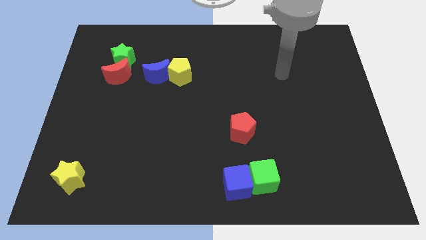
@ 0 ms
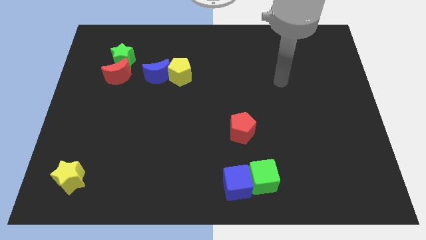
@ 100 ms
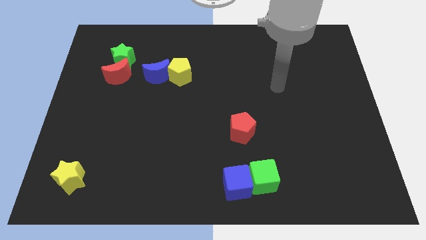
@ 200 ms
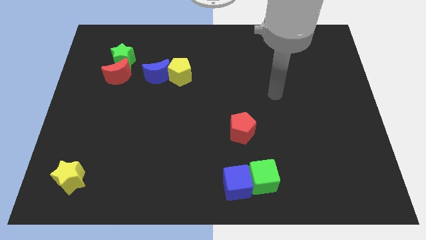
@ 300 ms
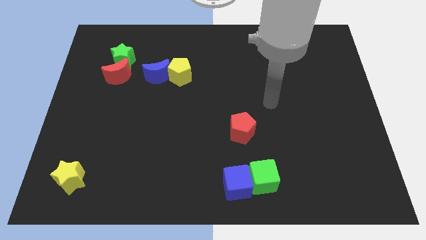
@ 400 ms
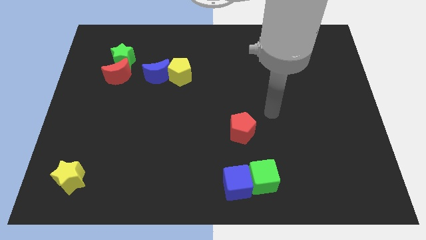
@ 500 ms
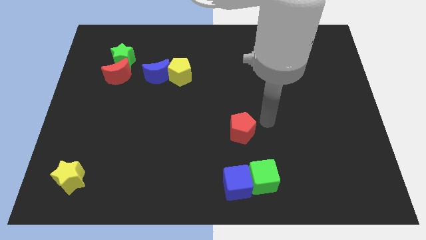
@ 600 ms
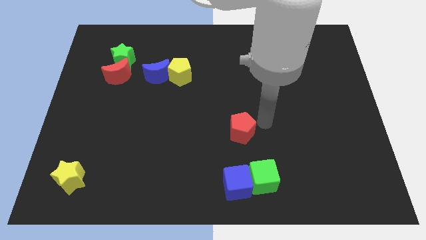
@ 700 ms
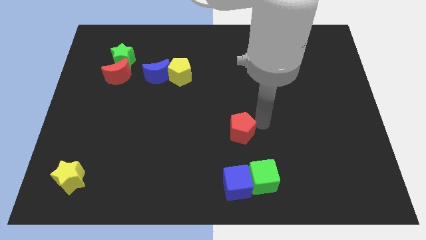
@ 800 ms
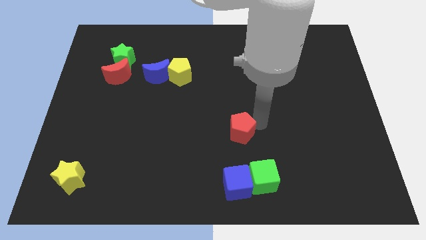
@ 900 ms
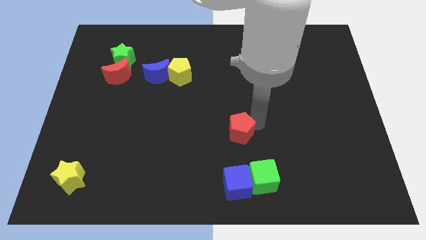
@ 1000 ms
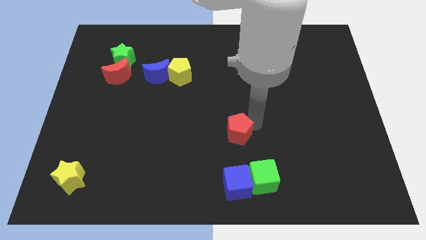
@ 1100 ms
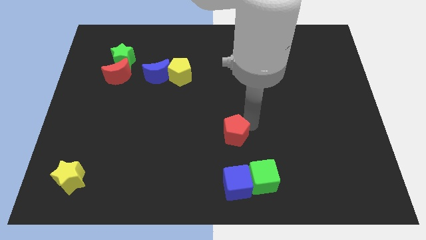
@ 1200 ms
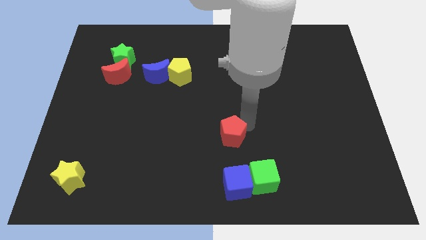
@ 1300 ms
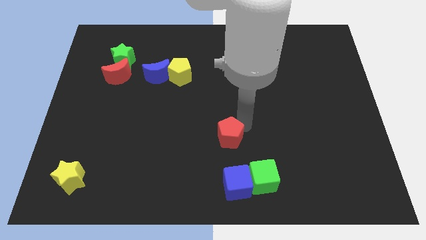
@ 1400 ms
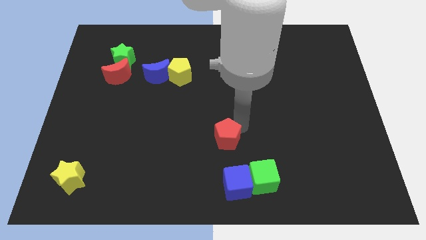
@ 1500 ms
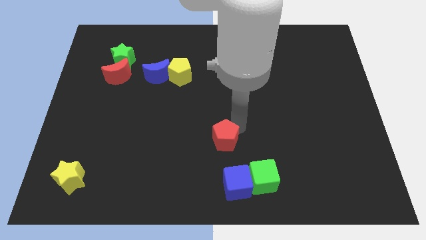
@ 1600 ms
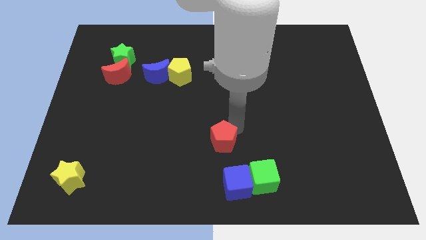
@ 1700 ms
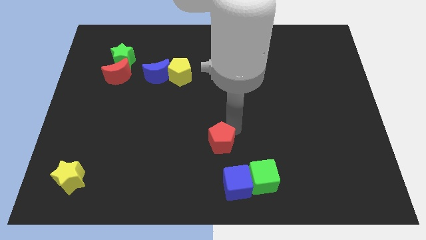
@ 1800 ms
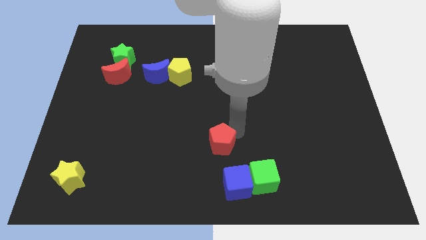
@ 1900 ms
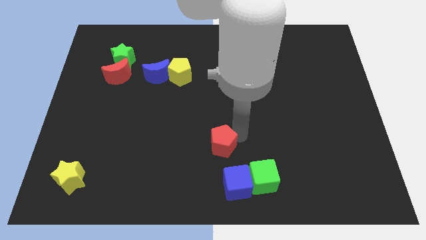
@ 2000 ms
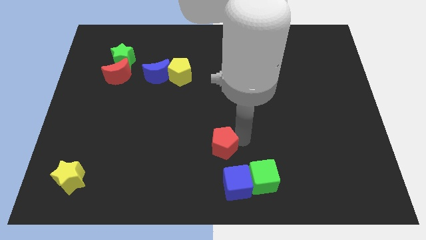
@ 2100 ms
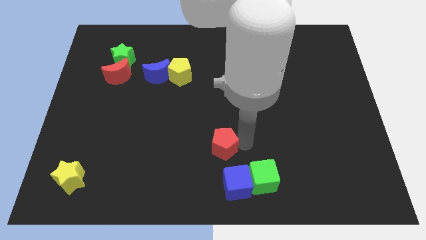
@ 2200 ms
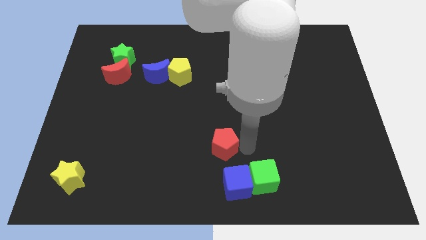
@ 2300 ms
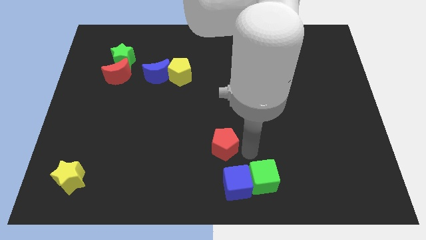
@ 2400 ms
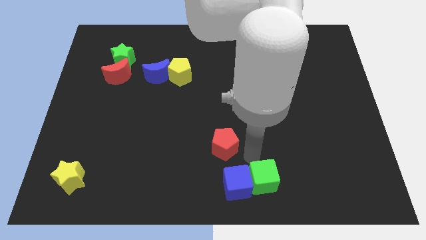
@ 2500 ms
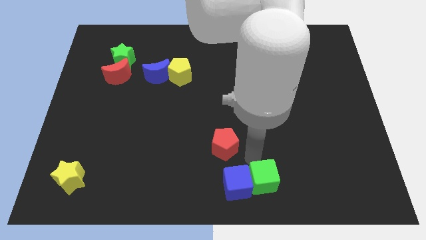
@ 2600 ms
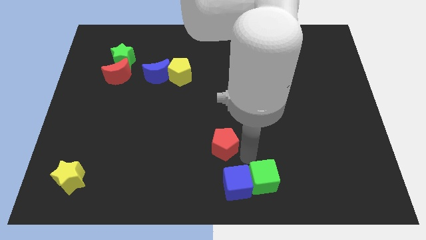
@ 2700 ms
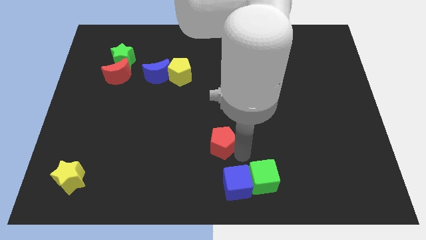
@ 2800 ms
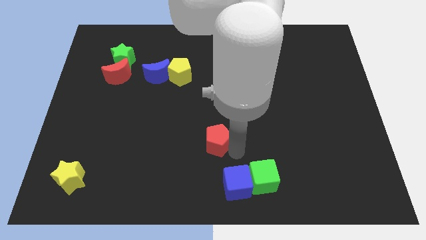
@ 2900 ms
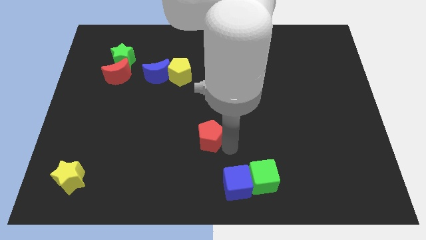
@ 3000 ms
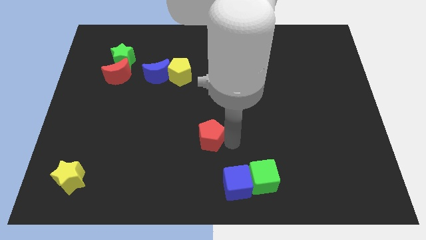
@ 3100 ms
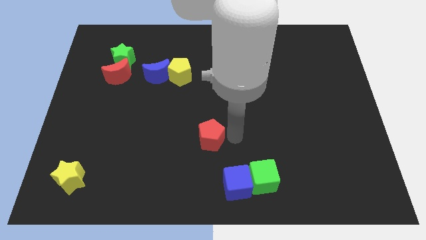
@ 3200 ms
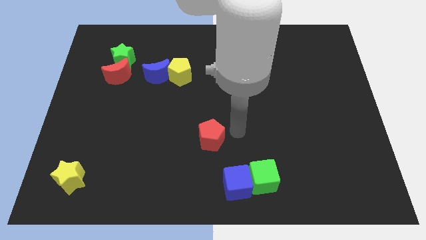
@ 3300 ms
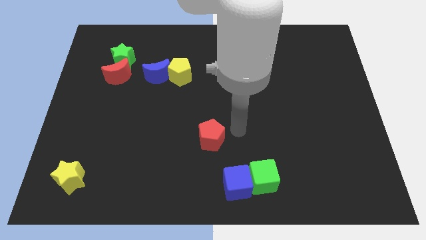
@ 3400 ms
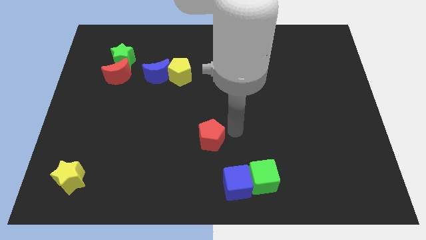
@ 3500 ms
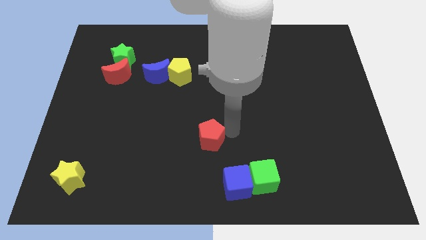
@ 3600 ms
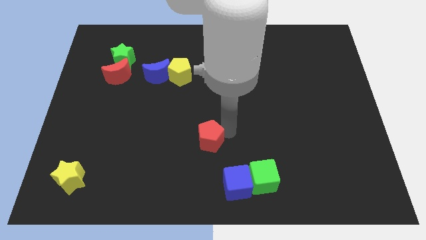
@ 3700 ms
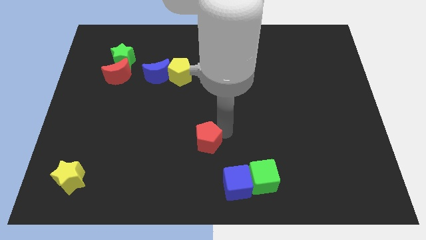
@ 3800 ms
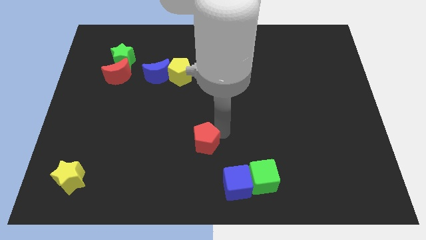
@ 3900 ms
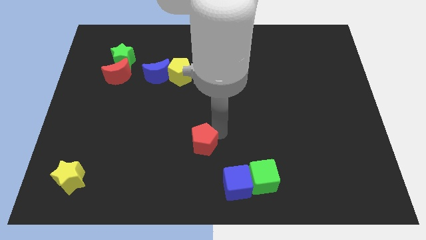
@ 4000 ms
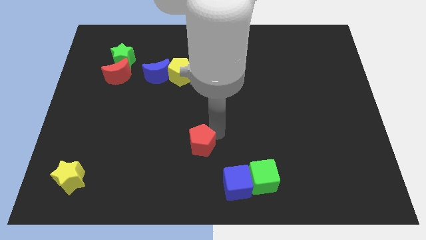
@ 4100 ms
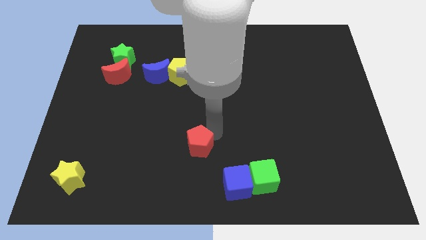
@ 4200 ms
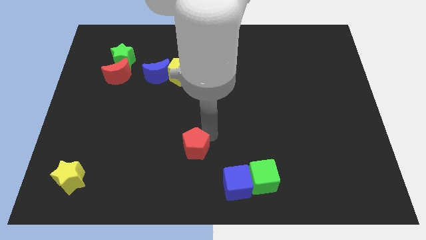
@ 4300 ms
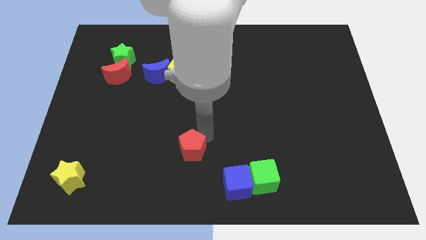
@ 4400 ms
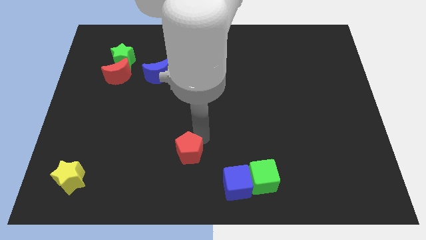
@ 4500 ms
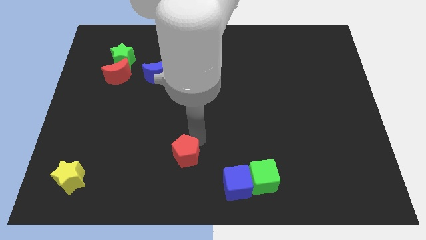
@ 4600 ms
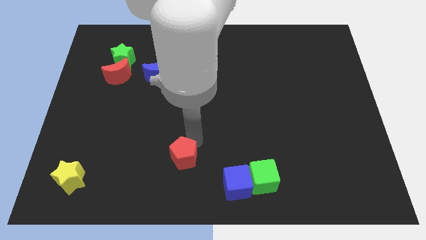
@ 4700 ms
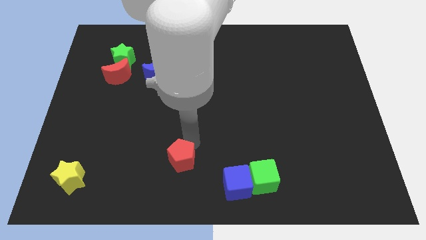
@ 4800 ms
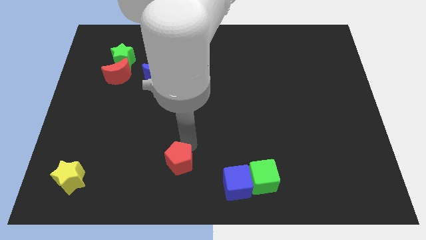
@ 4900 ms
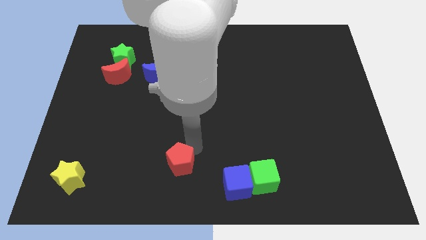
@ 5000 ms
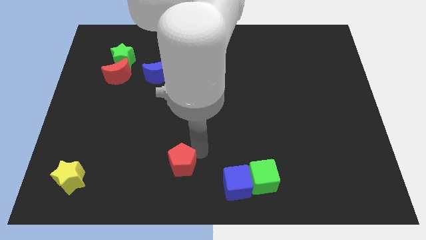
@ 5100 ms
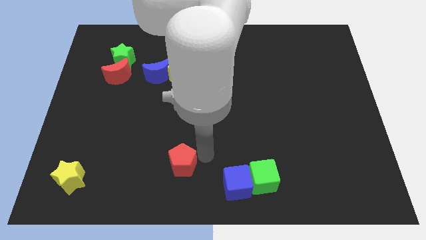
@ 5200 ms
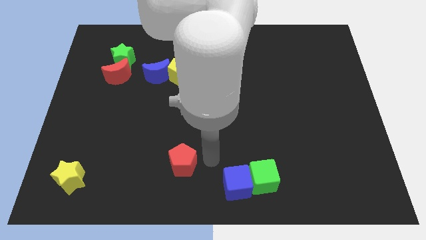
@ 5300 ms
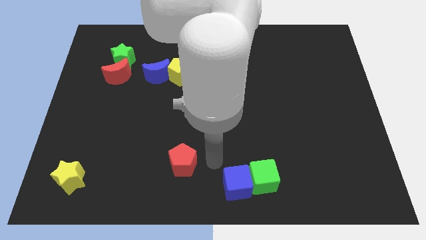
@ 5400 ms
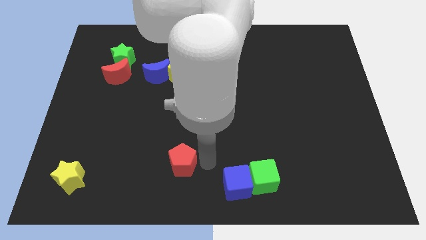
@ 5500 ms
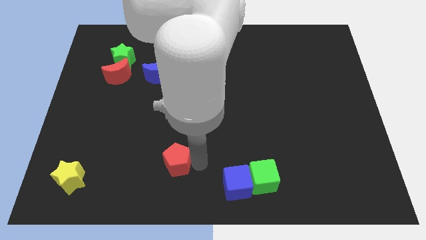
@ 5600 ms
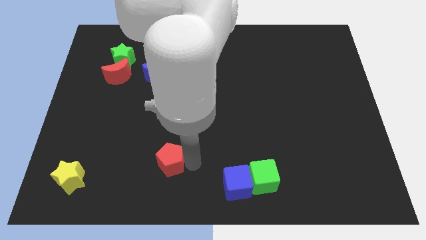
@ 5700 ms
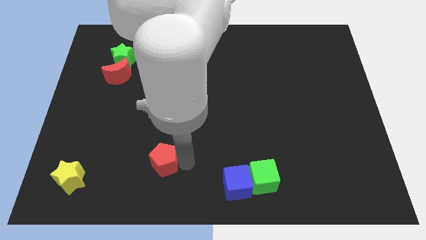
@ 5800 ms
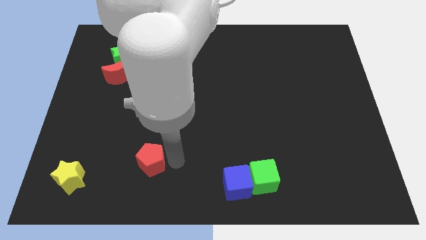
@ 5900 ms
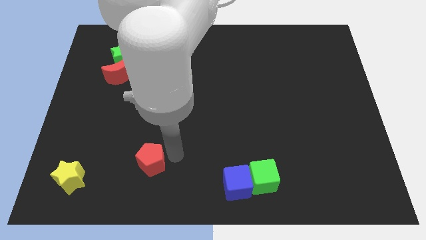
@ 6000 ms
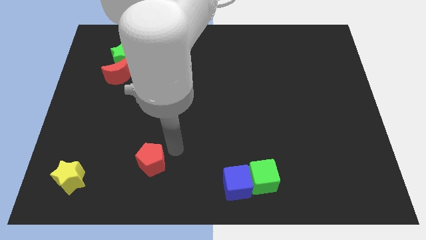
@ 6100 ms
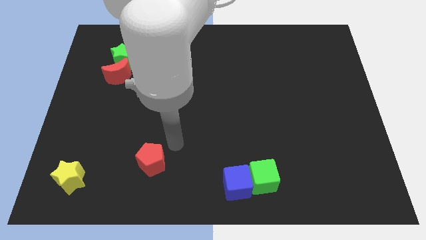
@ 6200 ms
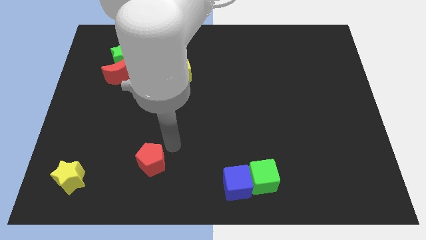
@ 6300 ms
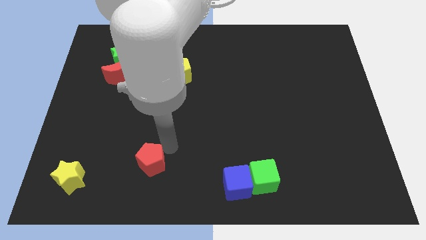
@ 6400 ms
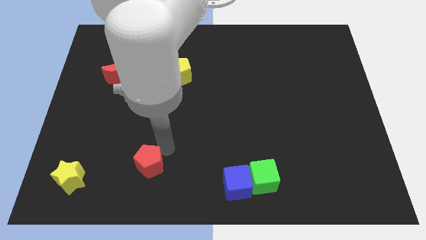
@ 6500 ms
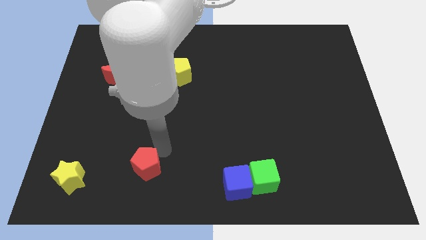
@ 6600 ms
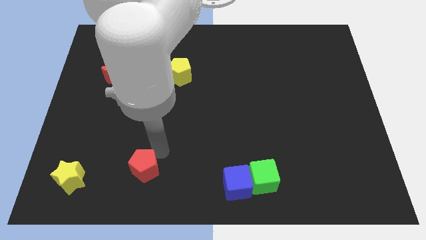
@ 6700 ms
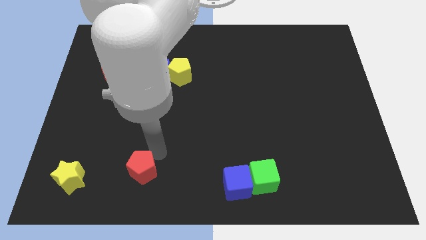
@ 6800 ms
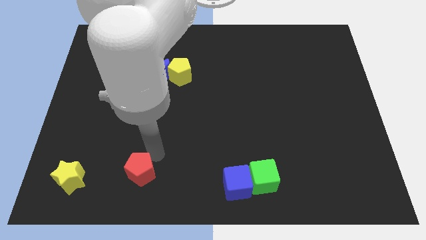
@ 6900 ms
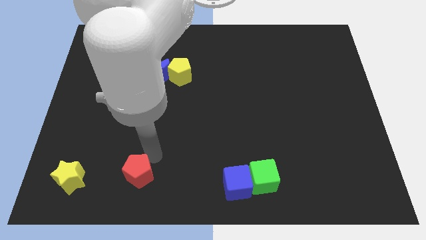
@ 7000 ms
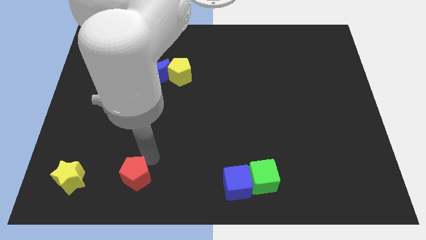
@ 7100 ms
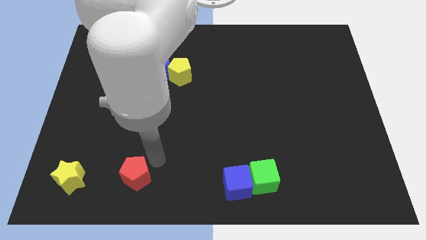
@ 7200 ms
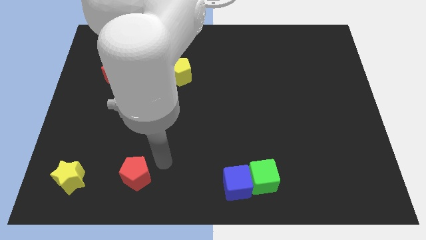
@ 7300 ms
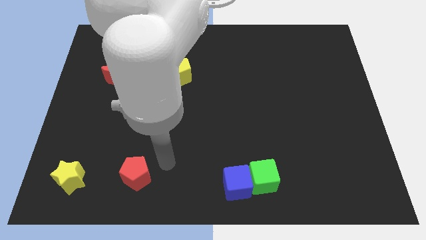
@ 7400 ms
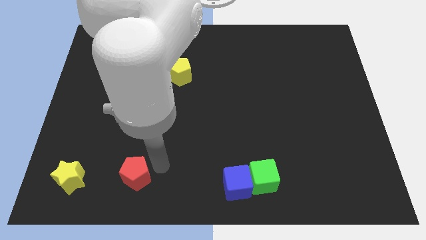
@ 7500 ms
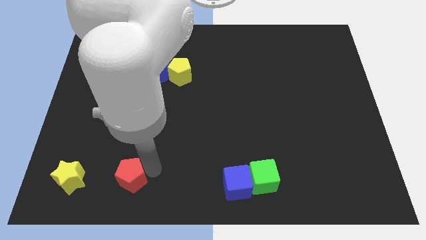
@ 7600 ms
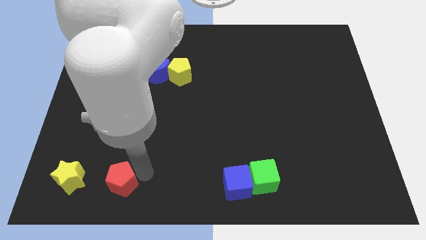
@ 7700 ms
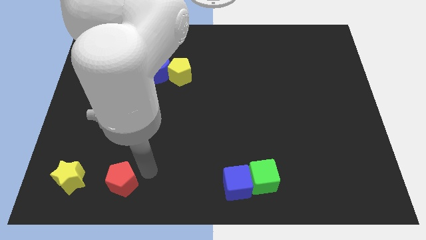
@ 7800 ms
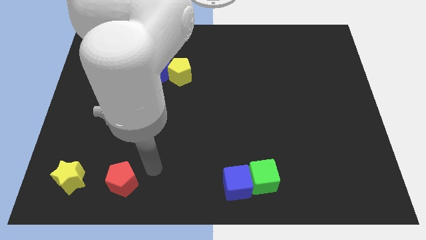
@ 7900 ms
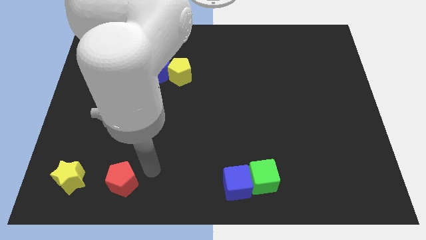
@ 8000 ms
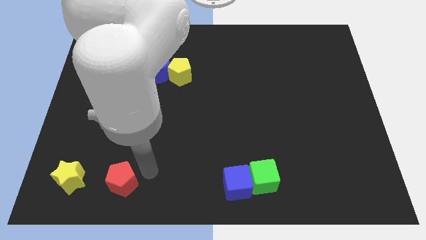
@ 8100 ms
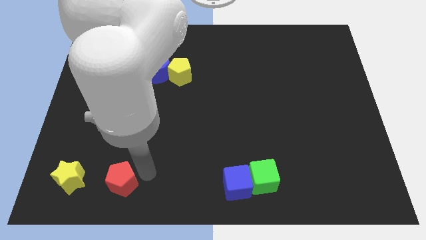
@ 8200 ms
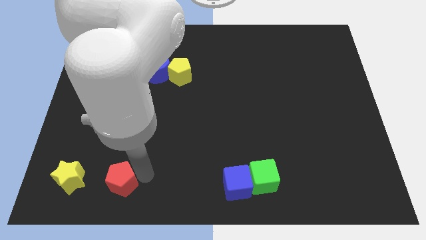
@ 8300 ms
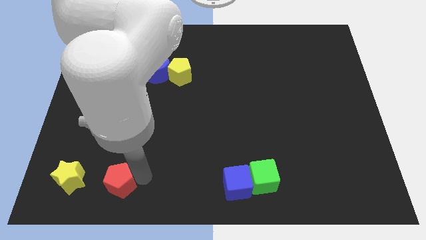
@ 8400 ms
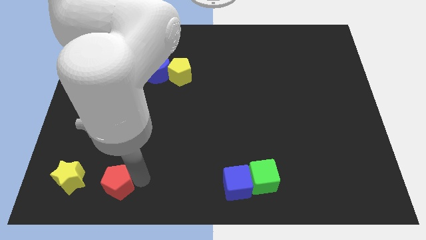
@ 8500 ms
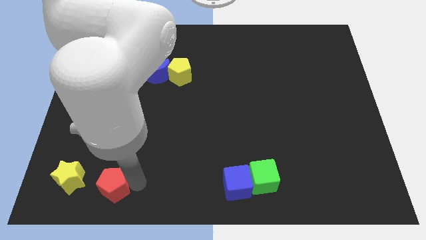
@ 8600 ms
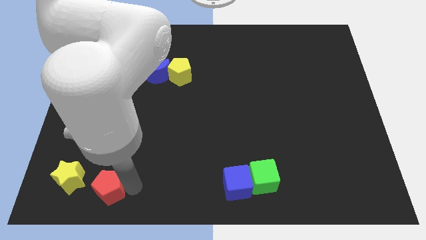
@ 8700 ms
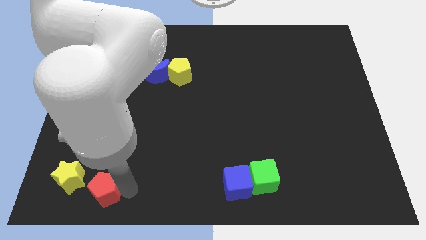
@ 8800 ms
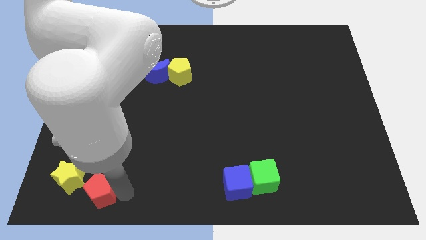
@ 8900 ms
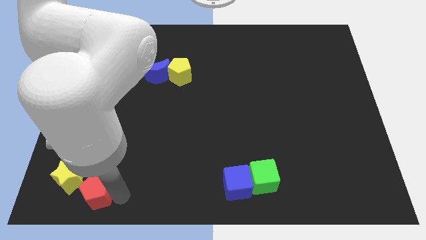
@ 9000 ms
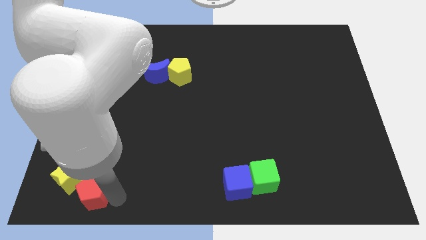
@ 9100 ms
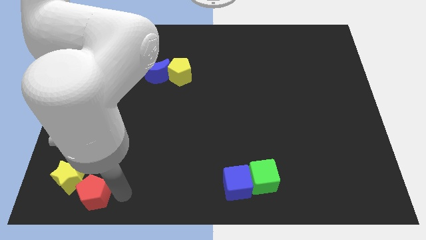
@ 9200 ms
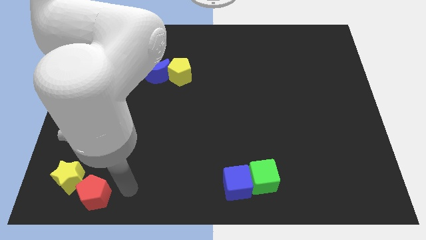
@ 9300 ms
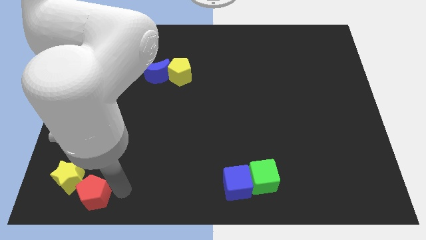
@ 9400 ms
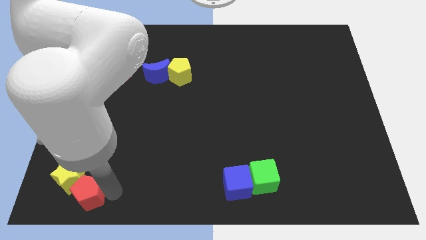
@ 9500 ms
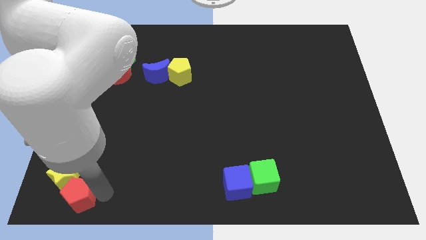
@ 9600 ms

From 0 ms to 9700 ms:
push the red pentagon to the bottom left of the board
